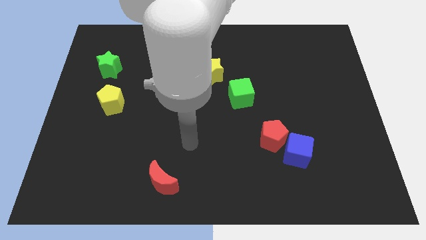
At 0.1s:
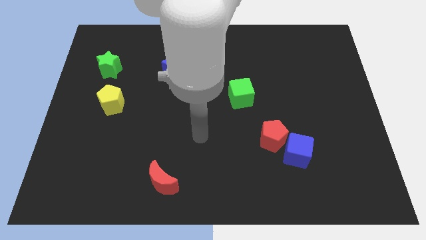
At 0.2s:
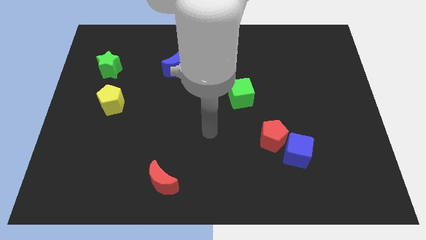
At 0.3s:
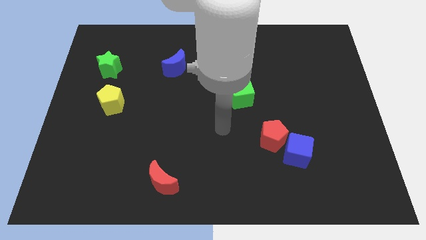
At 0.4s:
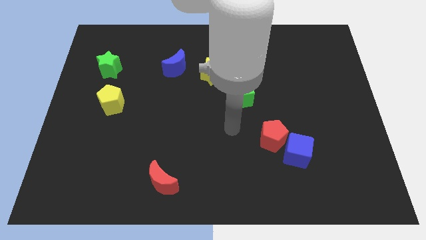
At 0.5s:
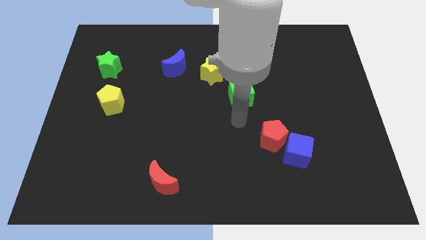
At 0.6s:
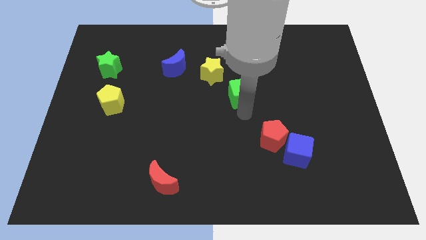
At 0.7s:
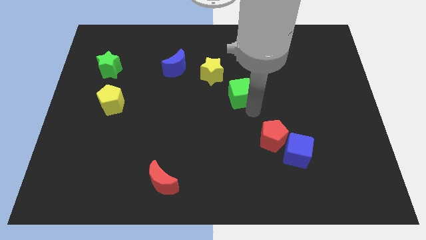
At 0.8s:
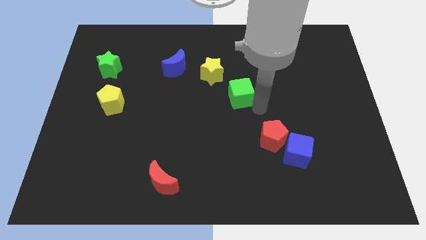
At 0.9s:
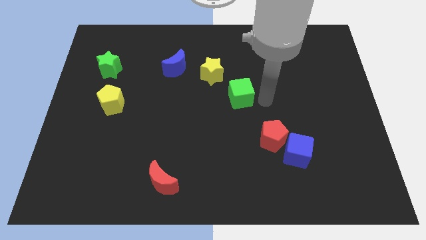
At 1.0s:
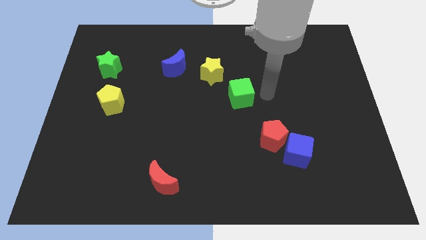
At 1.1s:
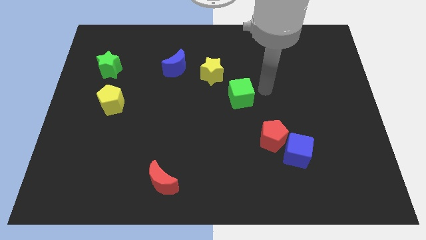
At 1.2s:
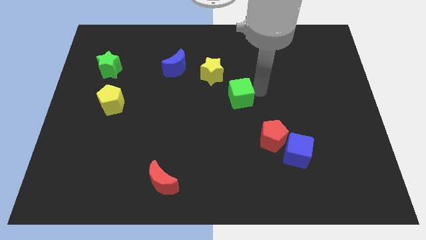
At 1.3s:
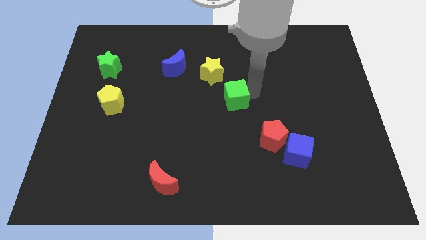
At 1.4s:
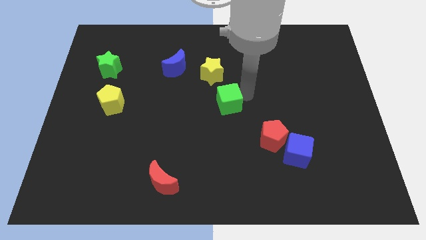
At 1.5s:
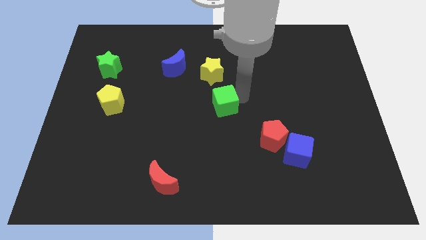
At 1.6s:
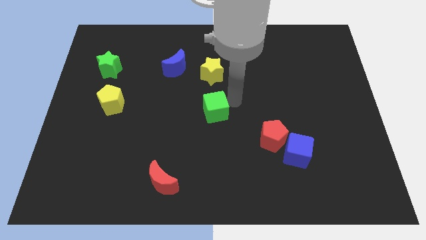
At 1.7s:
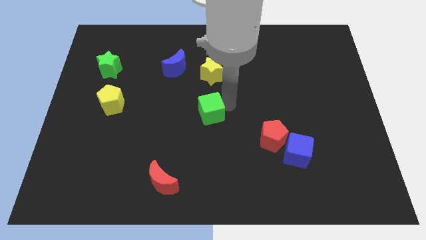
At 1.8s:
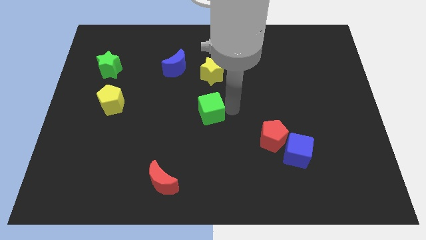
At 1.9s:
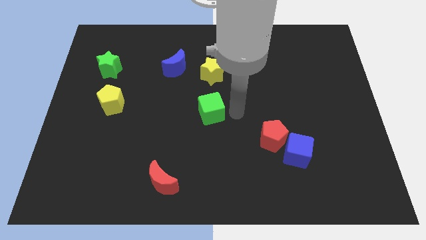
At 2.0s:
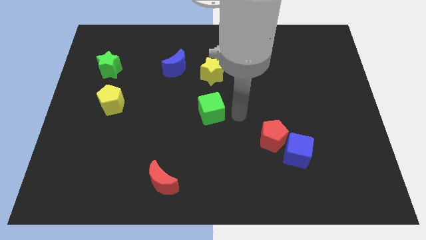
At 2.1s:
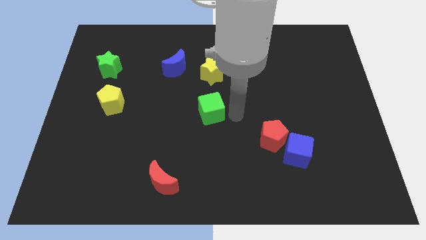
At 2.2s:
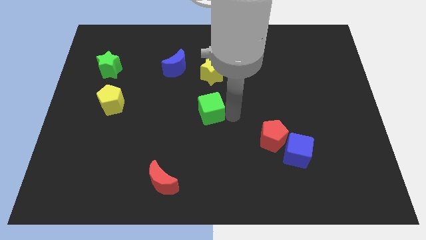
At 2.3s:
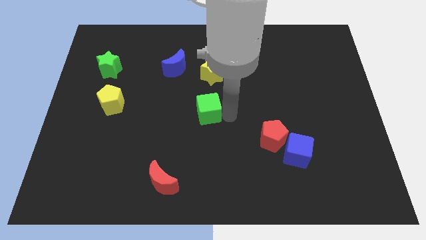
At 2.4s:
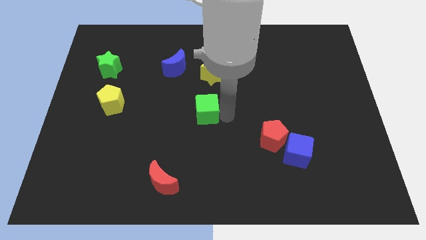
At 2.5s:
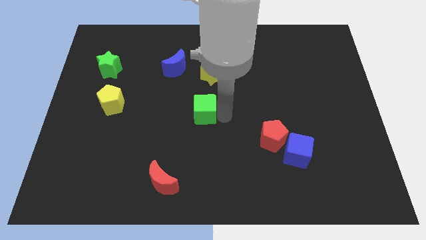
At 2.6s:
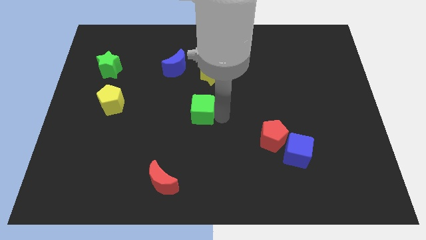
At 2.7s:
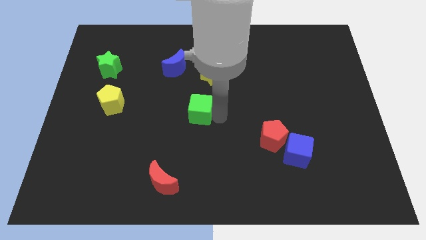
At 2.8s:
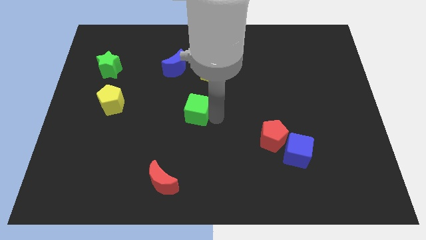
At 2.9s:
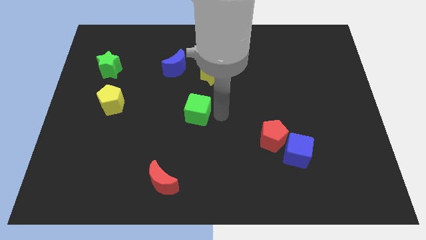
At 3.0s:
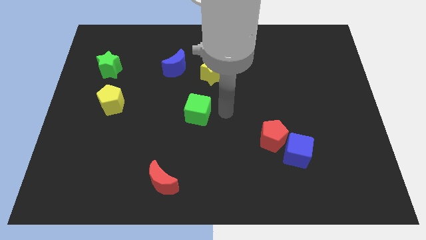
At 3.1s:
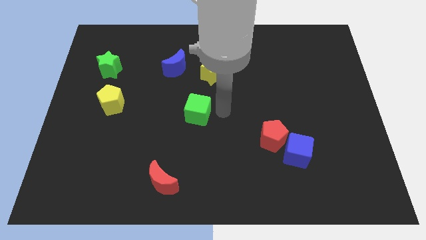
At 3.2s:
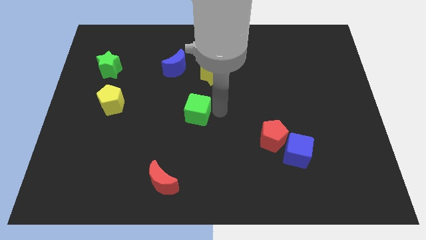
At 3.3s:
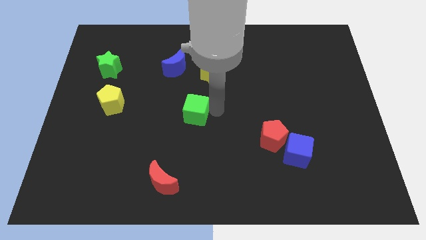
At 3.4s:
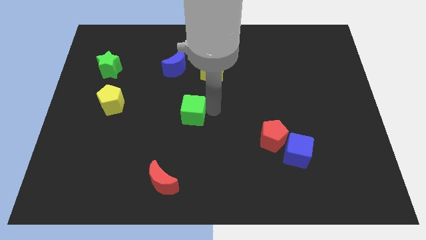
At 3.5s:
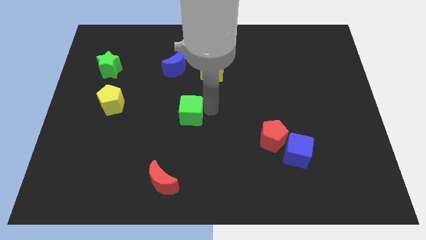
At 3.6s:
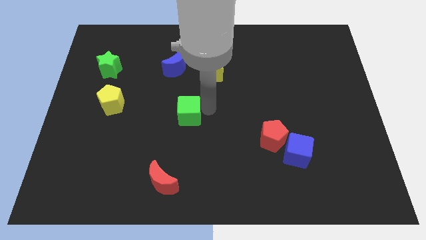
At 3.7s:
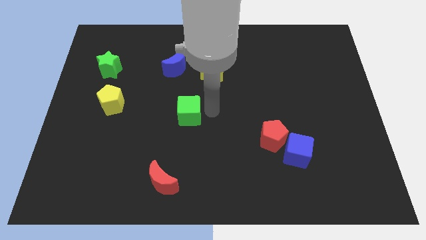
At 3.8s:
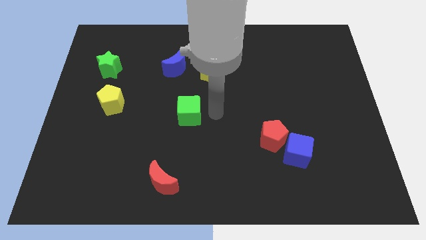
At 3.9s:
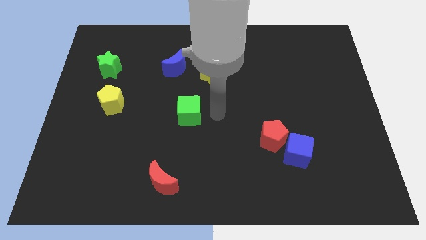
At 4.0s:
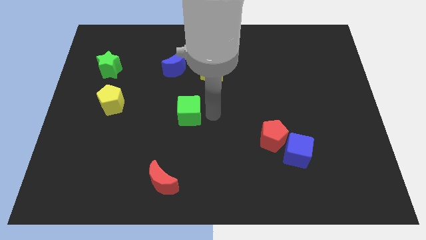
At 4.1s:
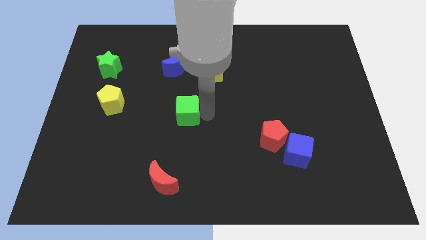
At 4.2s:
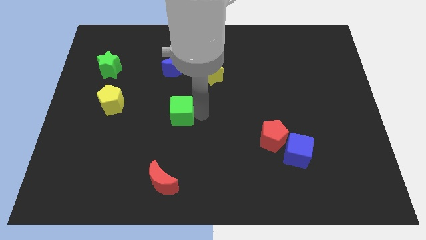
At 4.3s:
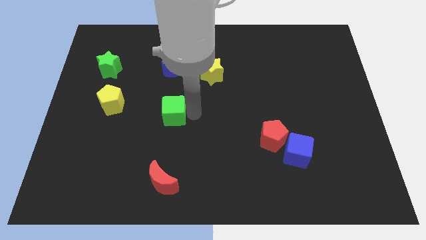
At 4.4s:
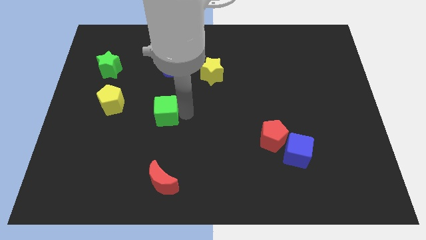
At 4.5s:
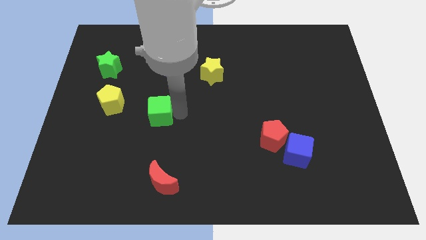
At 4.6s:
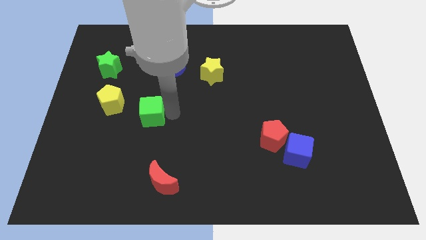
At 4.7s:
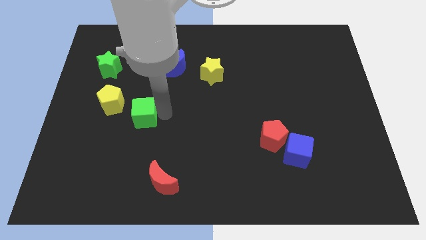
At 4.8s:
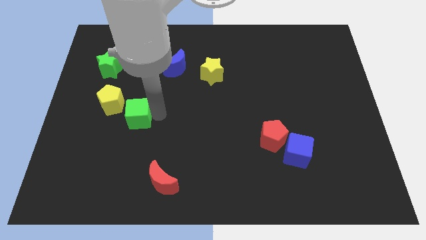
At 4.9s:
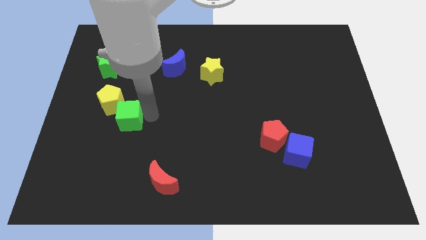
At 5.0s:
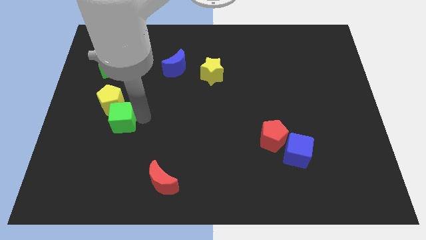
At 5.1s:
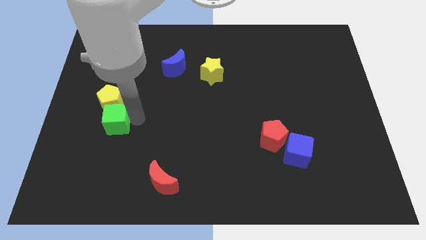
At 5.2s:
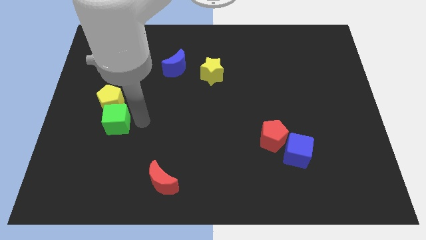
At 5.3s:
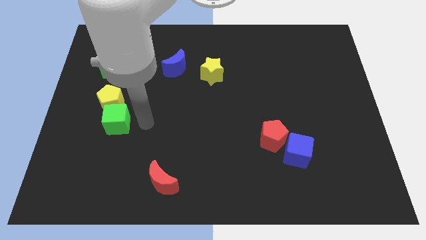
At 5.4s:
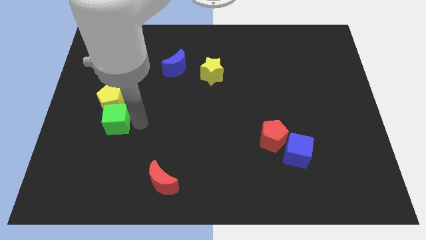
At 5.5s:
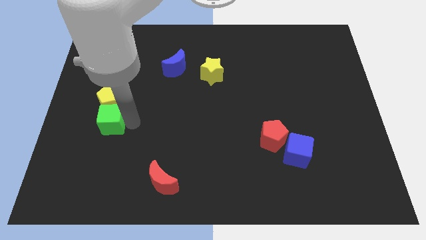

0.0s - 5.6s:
slide the green cube diagonally down and to the left of the yellow pentagon

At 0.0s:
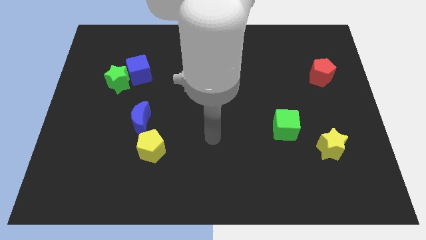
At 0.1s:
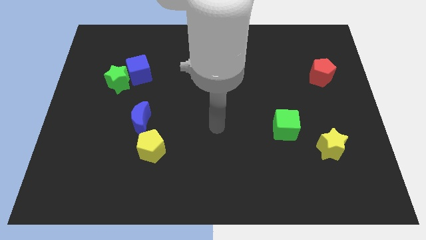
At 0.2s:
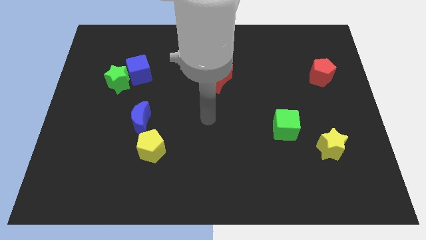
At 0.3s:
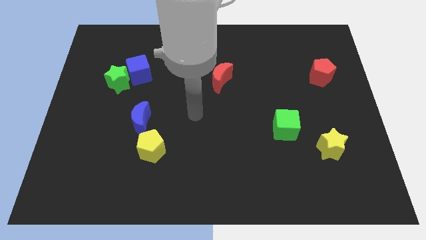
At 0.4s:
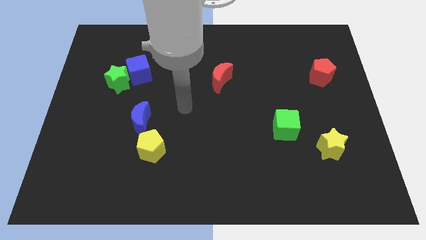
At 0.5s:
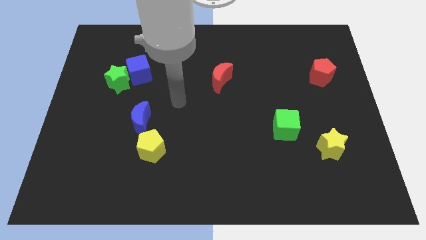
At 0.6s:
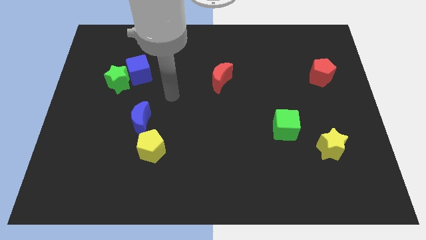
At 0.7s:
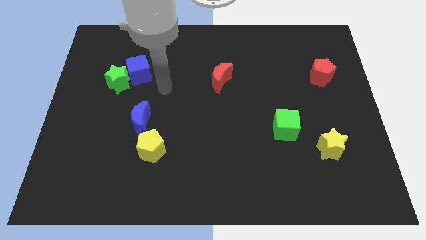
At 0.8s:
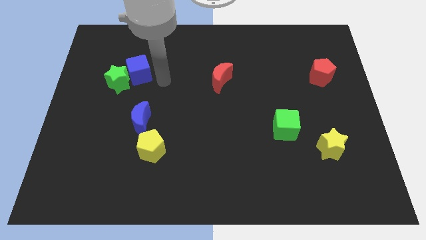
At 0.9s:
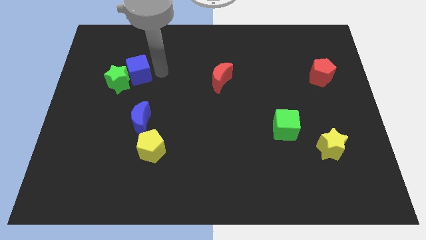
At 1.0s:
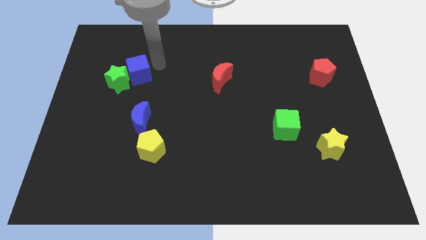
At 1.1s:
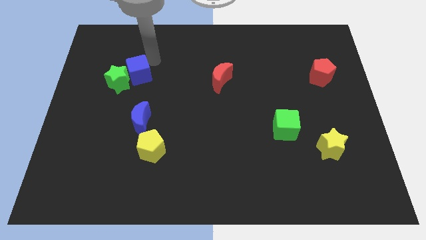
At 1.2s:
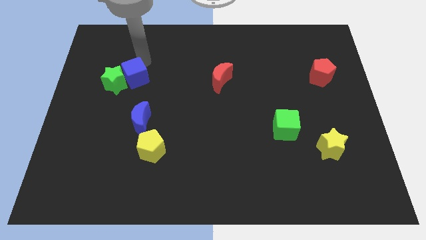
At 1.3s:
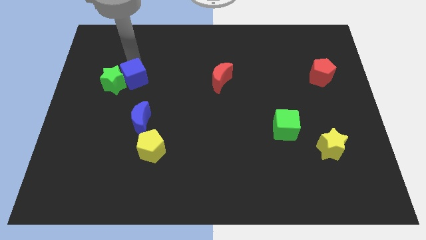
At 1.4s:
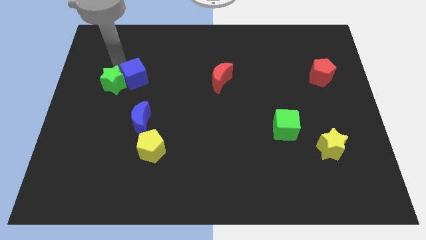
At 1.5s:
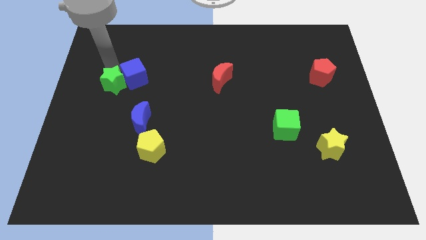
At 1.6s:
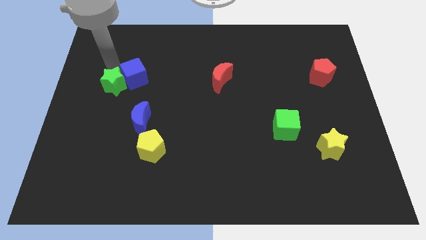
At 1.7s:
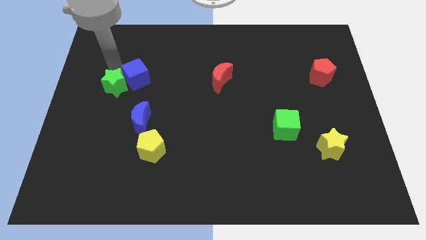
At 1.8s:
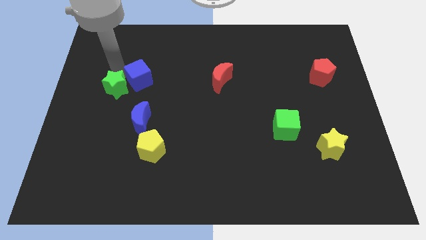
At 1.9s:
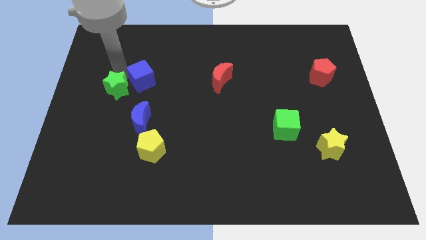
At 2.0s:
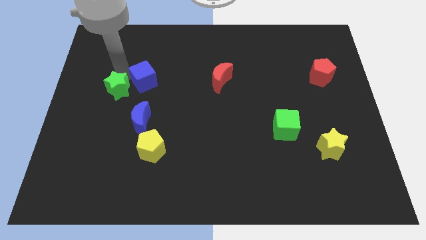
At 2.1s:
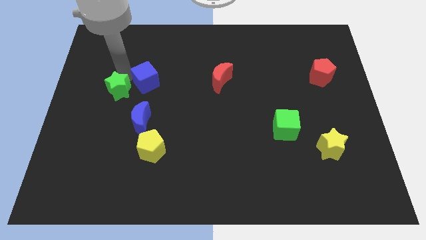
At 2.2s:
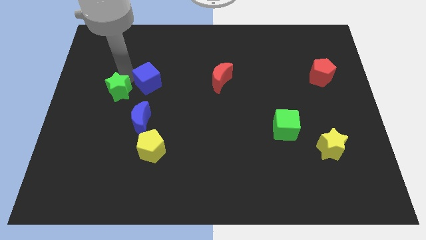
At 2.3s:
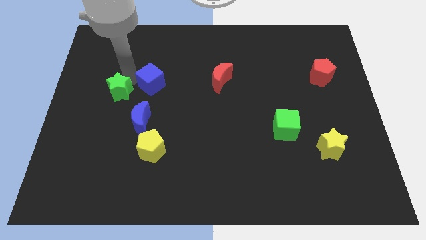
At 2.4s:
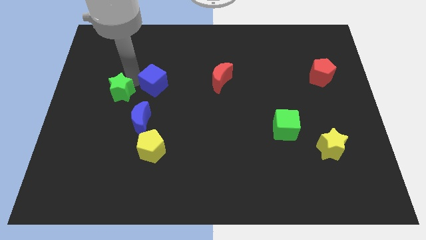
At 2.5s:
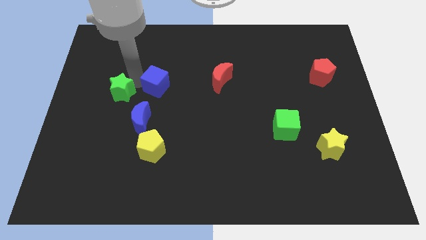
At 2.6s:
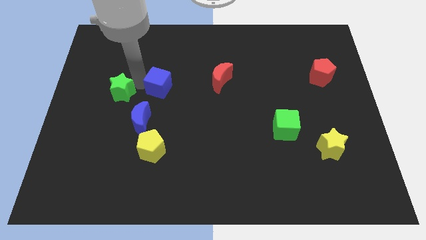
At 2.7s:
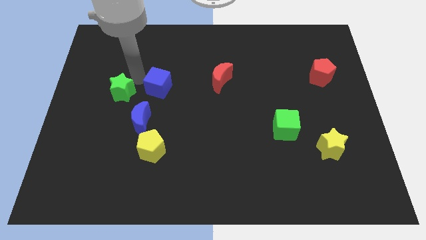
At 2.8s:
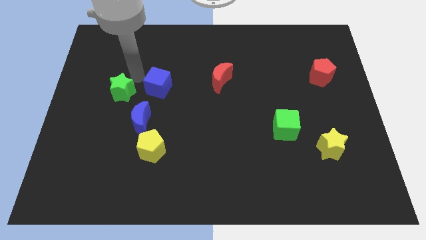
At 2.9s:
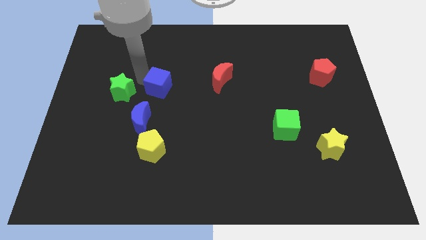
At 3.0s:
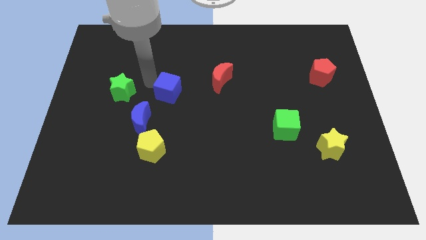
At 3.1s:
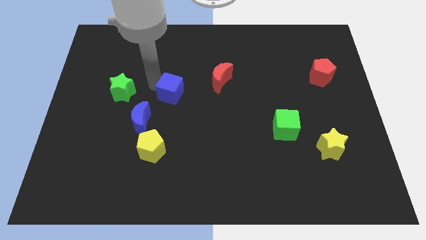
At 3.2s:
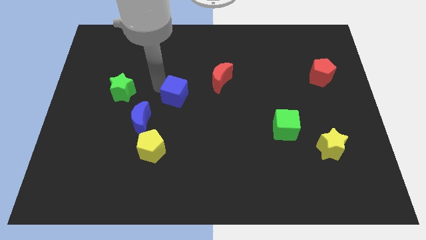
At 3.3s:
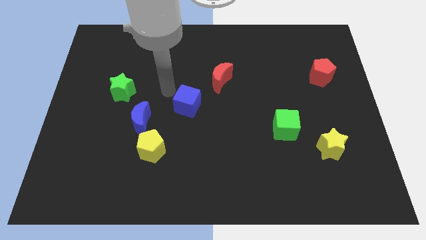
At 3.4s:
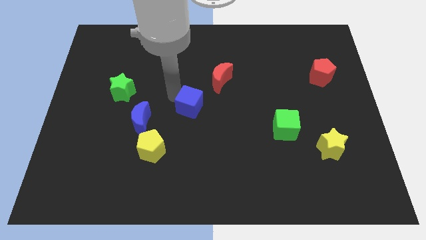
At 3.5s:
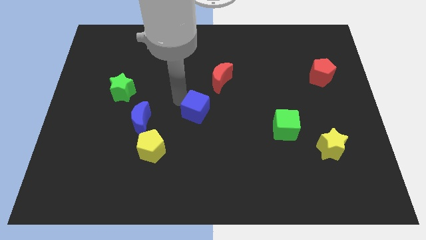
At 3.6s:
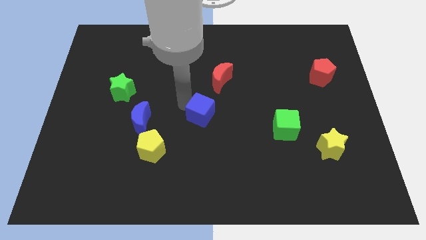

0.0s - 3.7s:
move the blue cube to the bottom side of the red moon
